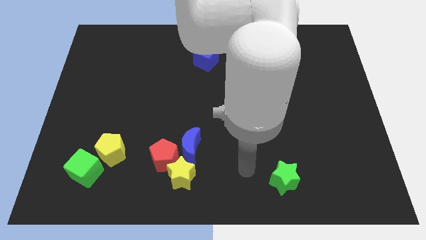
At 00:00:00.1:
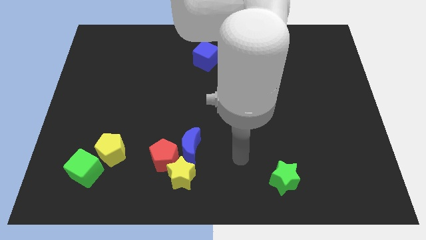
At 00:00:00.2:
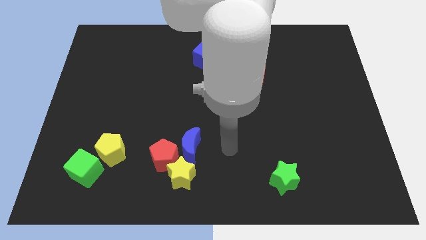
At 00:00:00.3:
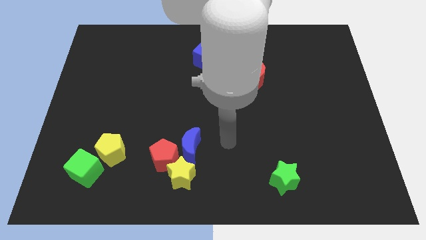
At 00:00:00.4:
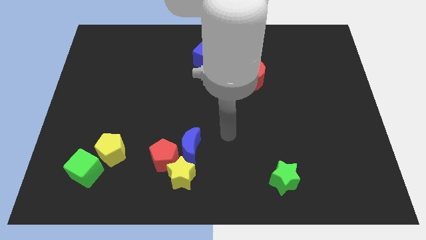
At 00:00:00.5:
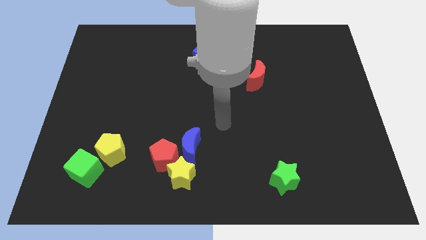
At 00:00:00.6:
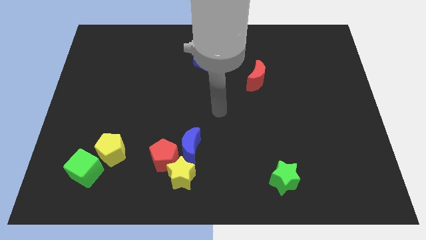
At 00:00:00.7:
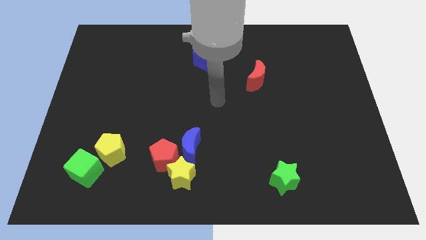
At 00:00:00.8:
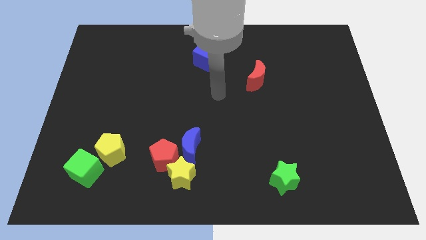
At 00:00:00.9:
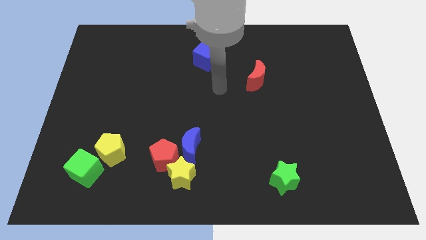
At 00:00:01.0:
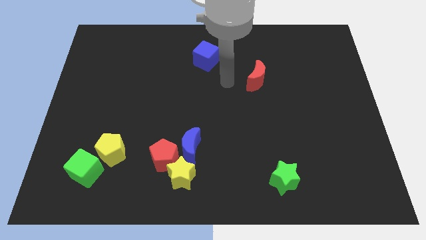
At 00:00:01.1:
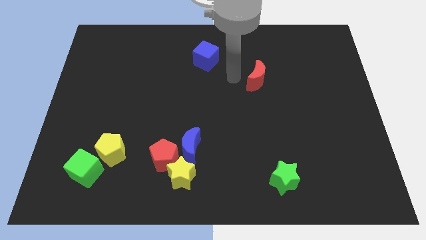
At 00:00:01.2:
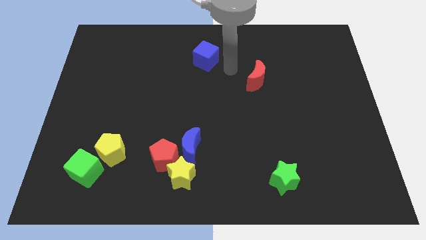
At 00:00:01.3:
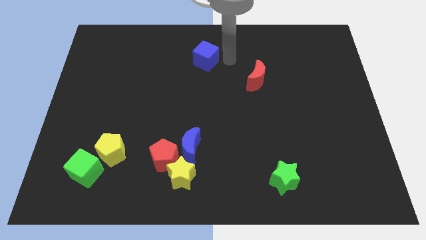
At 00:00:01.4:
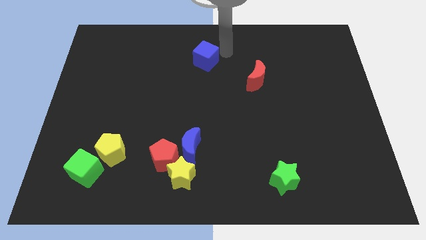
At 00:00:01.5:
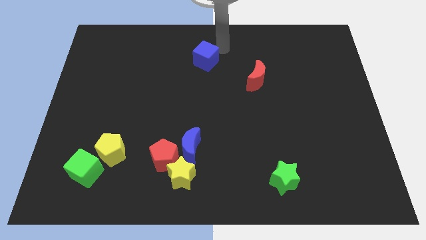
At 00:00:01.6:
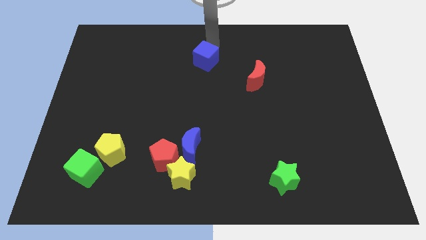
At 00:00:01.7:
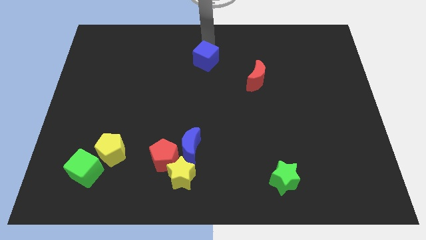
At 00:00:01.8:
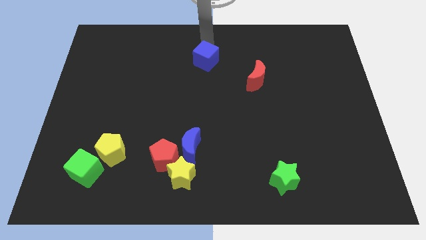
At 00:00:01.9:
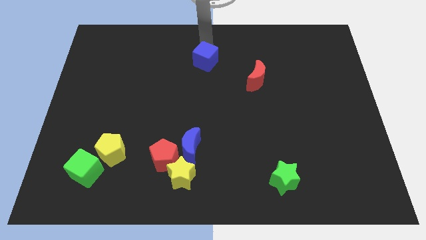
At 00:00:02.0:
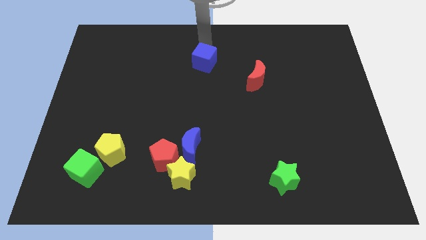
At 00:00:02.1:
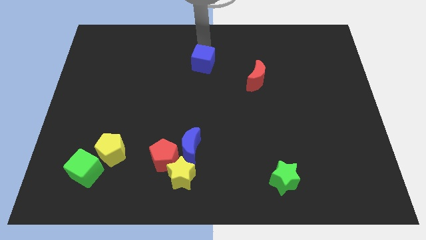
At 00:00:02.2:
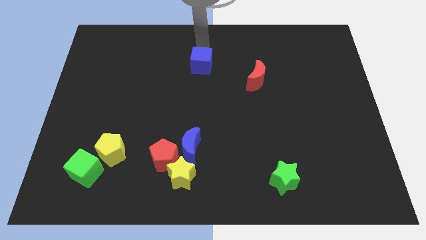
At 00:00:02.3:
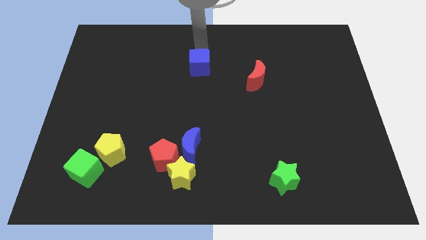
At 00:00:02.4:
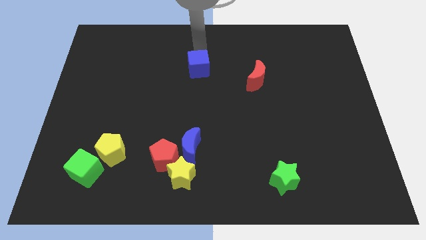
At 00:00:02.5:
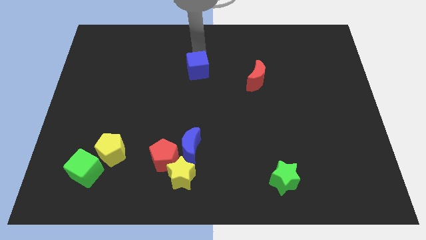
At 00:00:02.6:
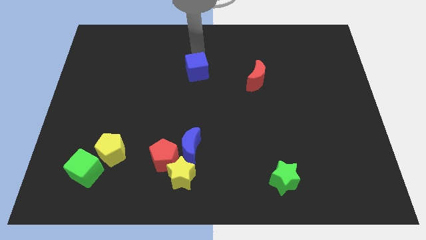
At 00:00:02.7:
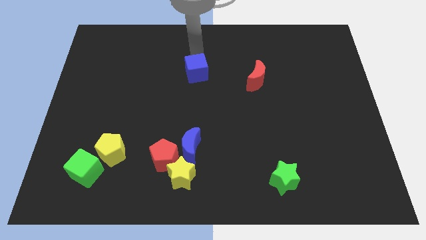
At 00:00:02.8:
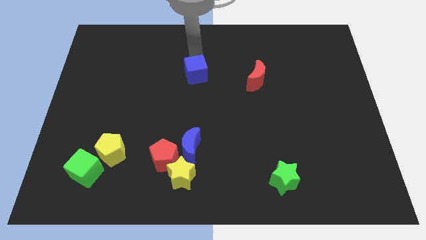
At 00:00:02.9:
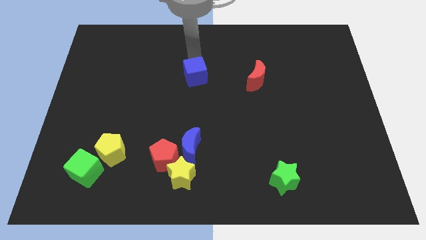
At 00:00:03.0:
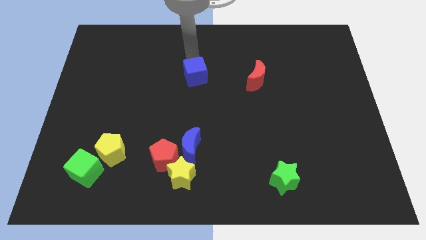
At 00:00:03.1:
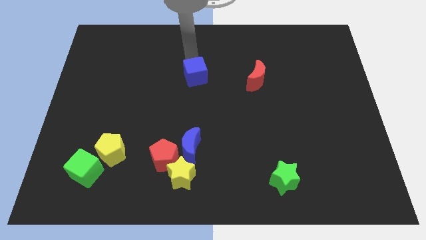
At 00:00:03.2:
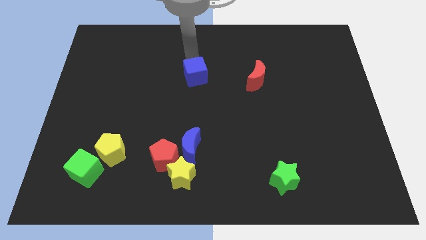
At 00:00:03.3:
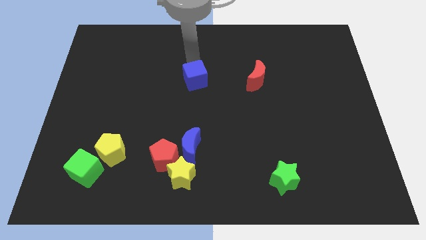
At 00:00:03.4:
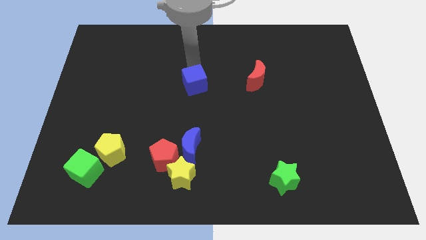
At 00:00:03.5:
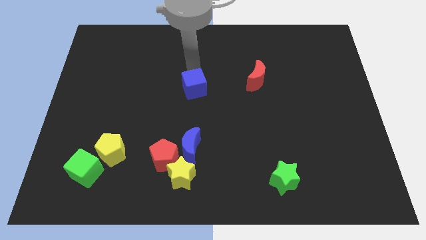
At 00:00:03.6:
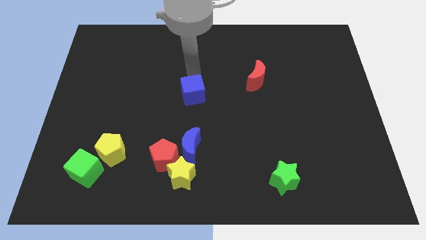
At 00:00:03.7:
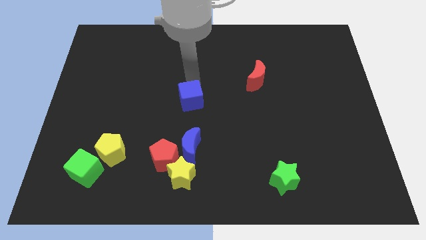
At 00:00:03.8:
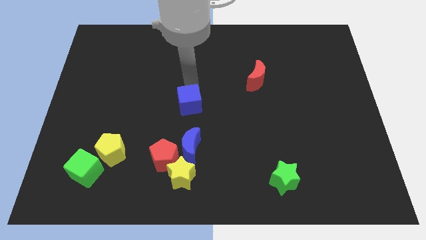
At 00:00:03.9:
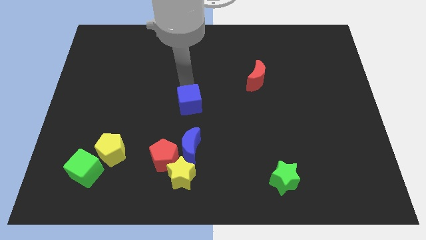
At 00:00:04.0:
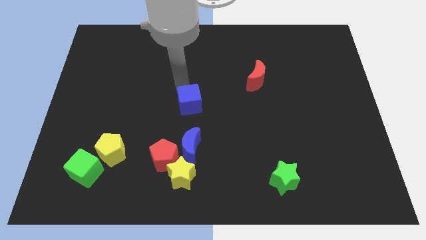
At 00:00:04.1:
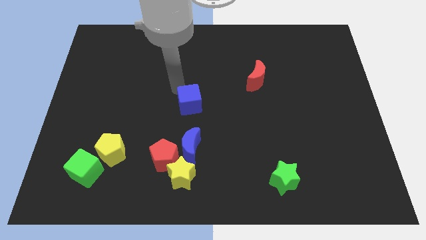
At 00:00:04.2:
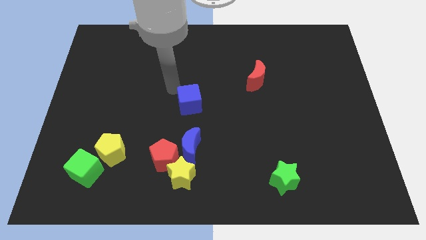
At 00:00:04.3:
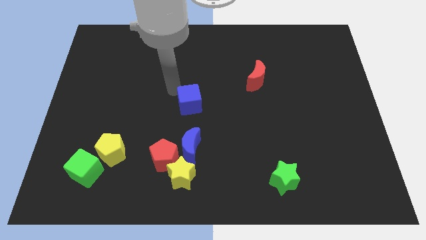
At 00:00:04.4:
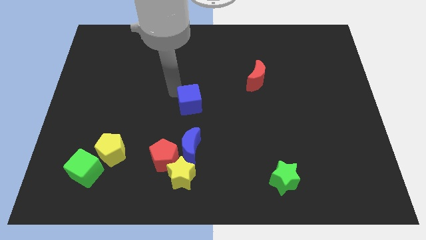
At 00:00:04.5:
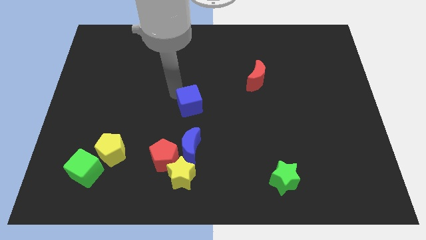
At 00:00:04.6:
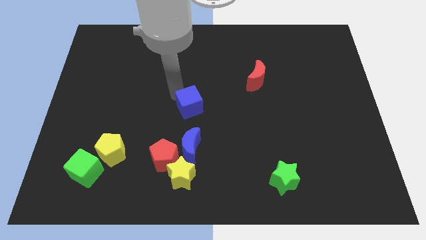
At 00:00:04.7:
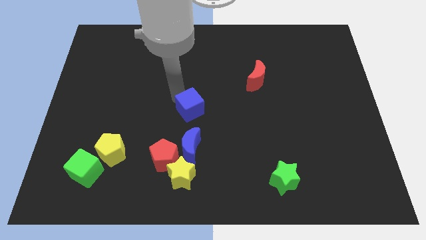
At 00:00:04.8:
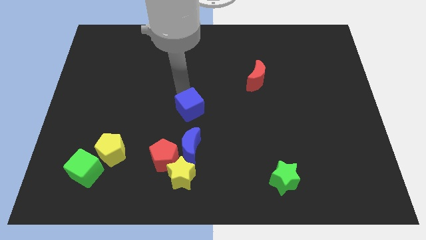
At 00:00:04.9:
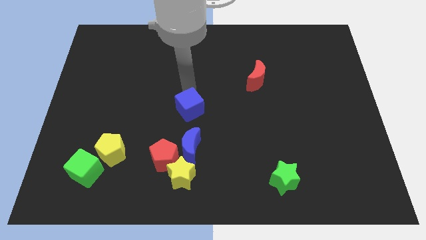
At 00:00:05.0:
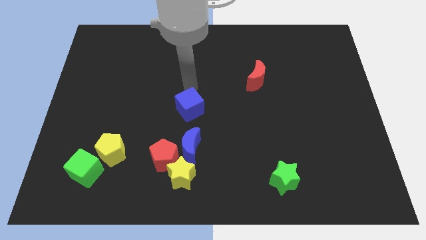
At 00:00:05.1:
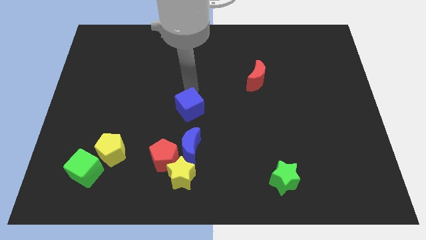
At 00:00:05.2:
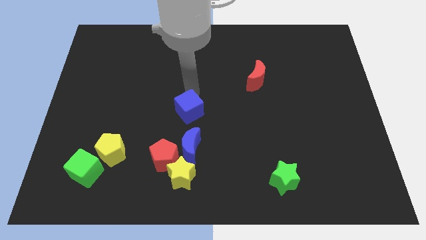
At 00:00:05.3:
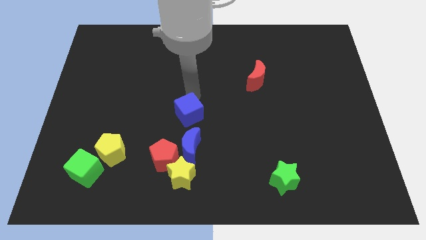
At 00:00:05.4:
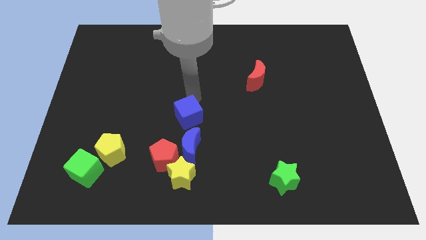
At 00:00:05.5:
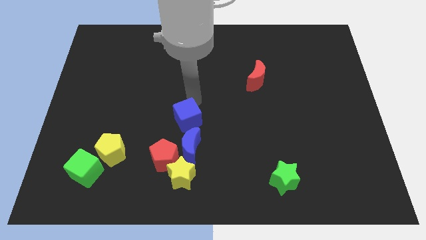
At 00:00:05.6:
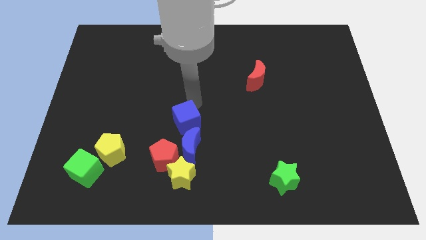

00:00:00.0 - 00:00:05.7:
slide the blue cube diagonally up and to the right of the red pentagon

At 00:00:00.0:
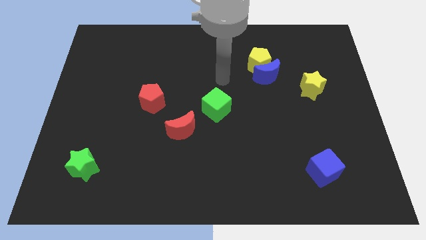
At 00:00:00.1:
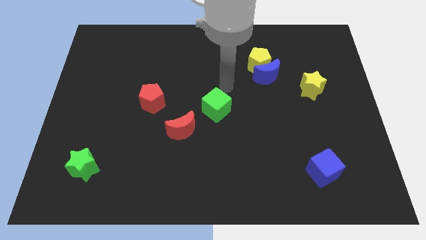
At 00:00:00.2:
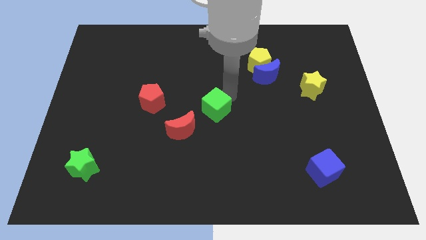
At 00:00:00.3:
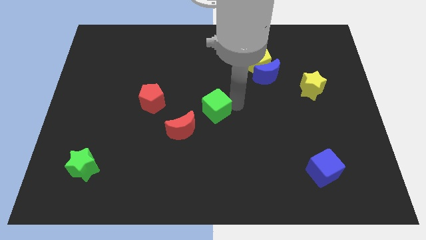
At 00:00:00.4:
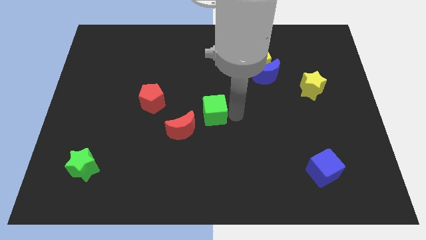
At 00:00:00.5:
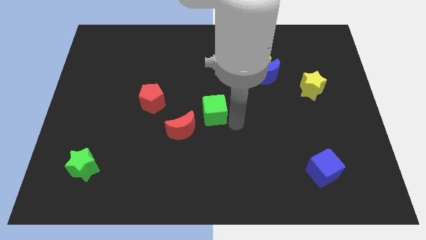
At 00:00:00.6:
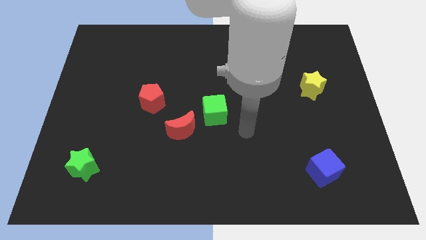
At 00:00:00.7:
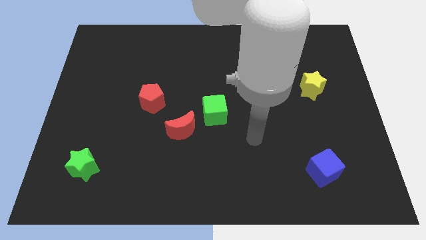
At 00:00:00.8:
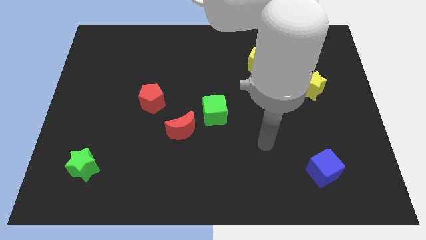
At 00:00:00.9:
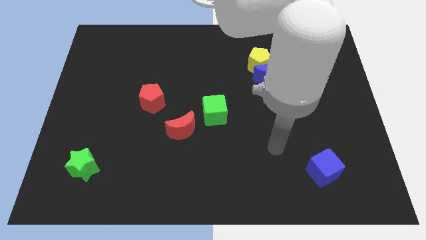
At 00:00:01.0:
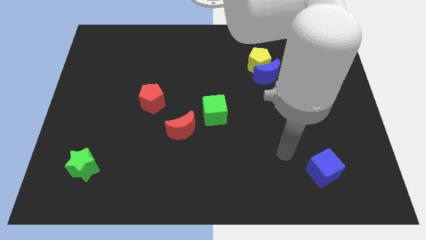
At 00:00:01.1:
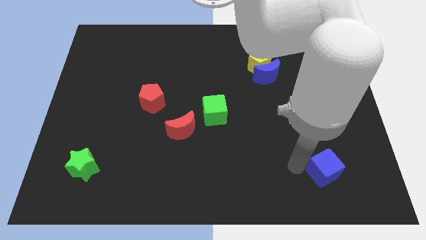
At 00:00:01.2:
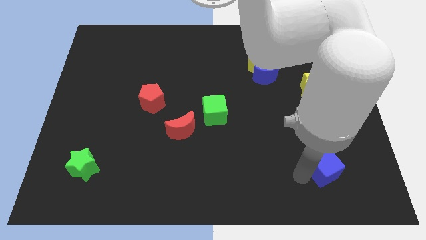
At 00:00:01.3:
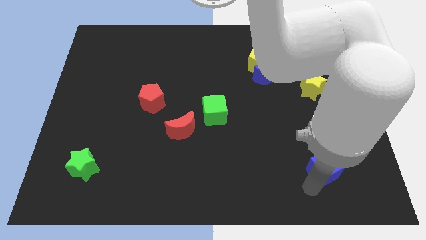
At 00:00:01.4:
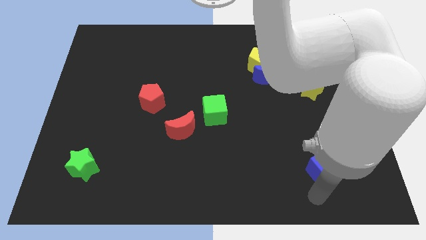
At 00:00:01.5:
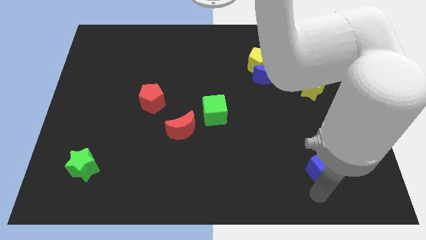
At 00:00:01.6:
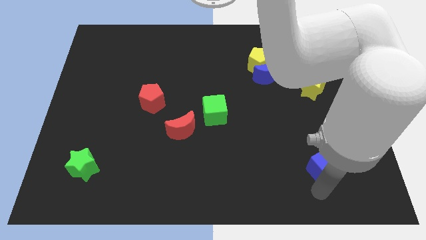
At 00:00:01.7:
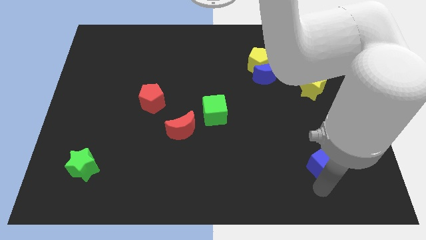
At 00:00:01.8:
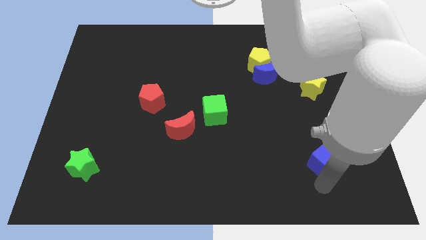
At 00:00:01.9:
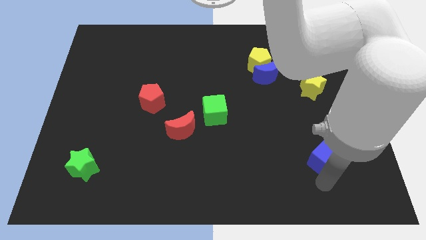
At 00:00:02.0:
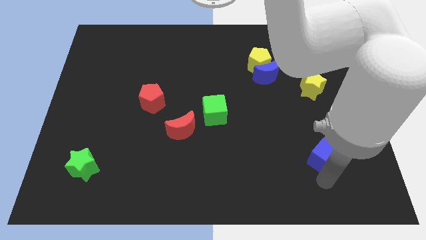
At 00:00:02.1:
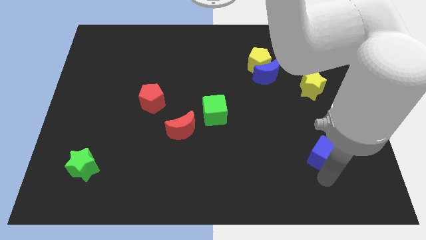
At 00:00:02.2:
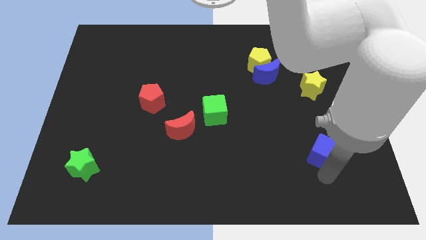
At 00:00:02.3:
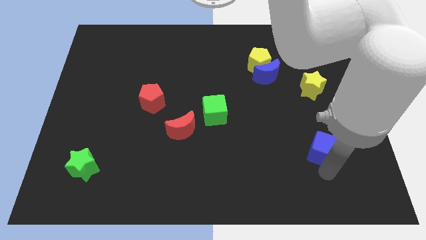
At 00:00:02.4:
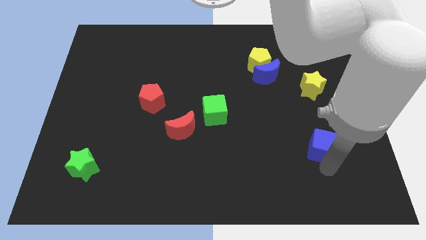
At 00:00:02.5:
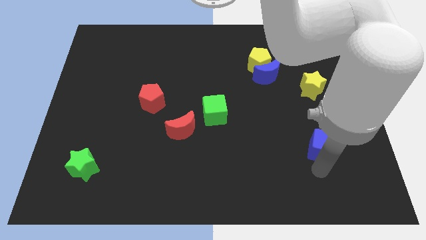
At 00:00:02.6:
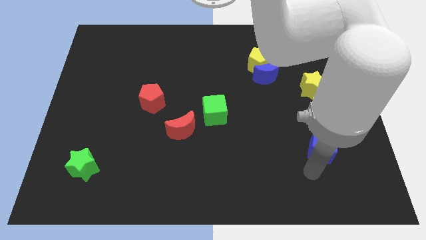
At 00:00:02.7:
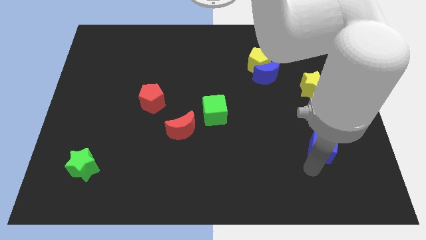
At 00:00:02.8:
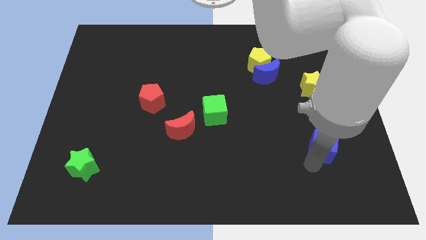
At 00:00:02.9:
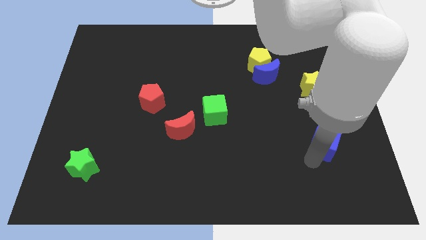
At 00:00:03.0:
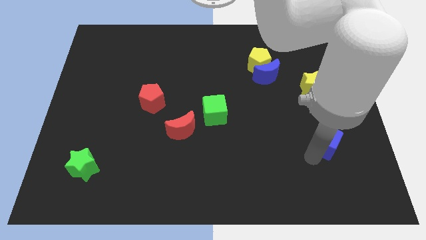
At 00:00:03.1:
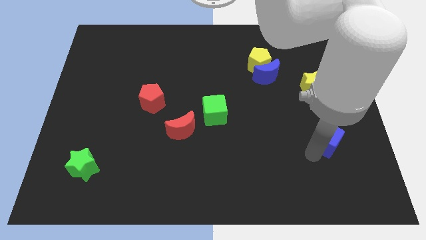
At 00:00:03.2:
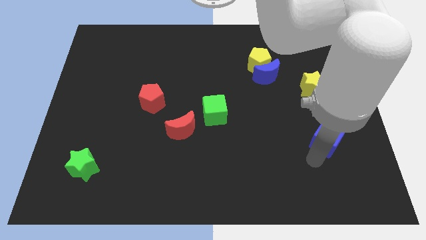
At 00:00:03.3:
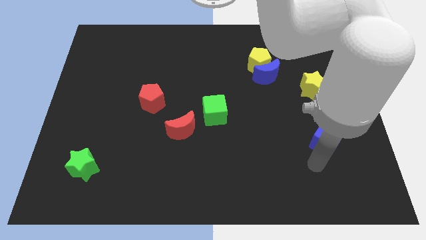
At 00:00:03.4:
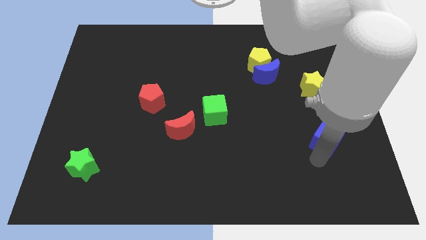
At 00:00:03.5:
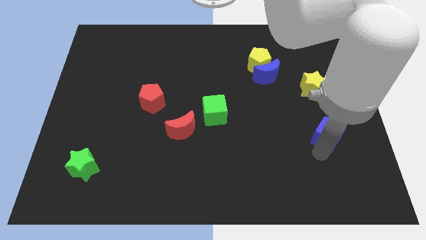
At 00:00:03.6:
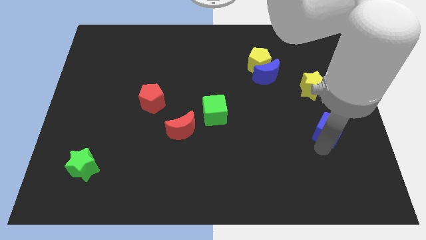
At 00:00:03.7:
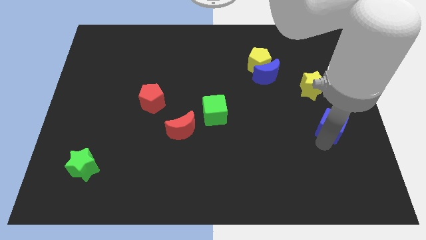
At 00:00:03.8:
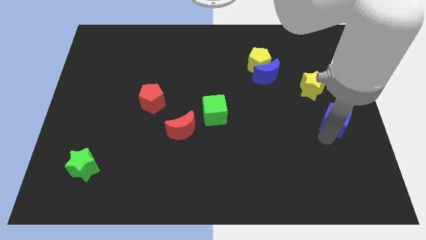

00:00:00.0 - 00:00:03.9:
slide the blue cube to the bottom right of the yellow star
